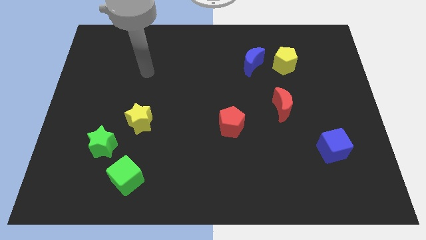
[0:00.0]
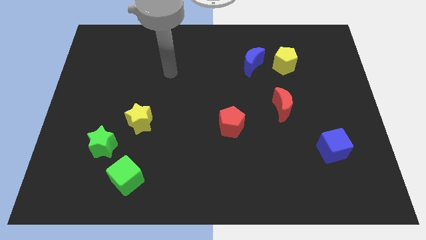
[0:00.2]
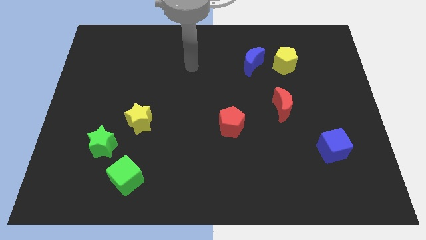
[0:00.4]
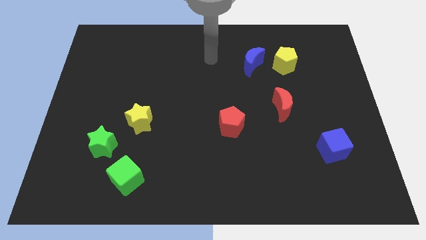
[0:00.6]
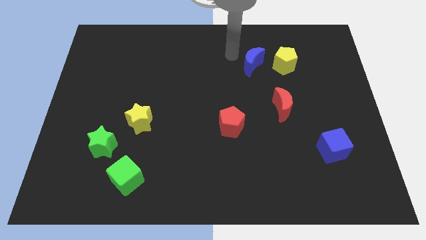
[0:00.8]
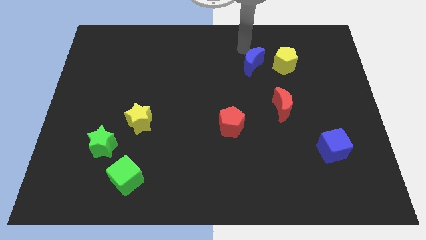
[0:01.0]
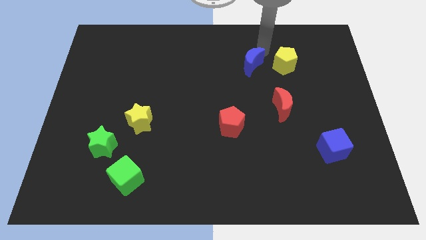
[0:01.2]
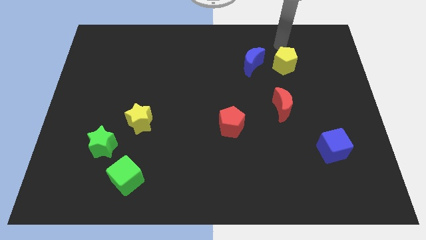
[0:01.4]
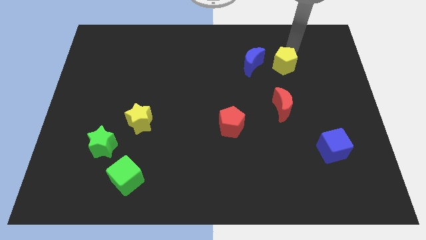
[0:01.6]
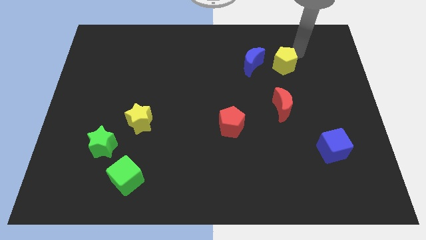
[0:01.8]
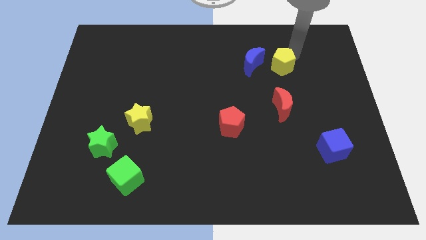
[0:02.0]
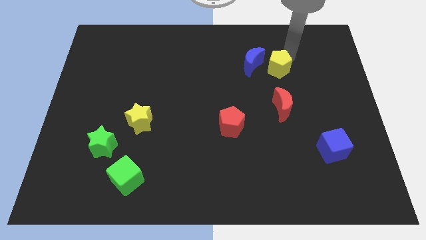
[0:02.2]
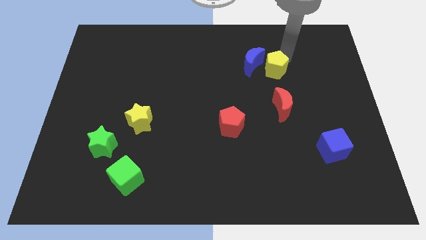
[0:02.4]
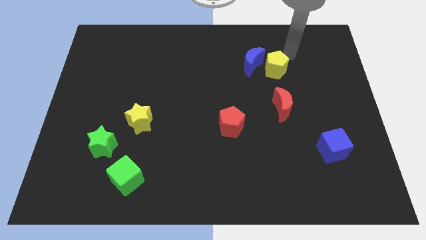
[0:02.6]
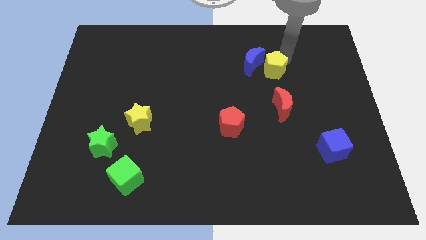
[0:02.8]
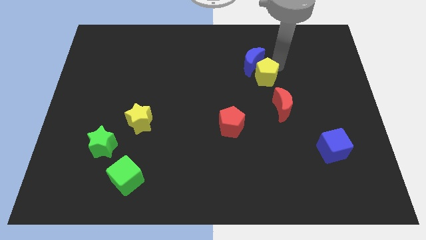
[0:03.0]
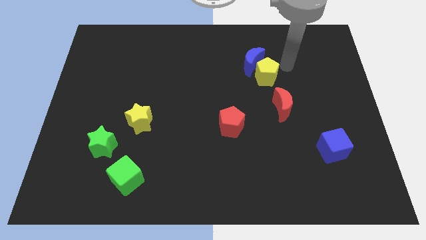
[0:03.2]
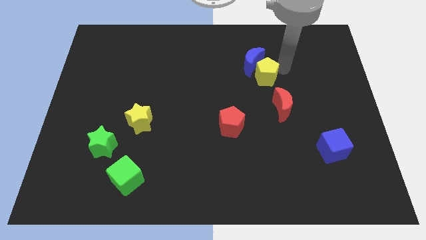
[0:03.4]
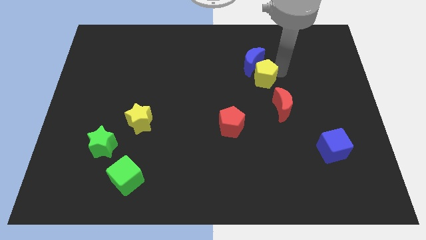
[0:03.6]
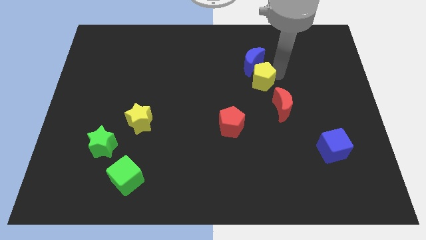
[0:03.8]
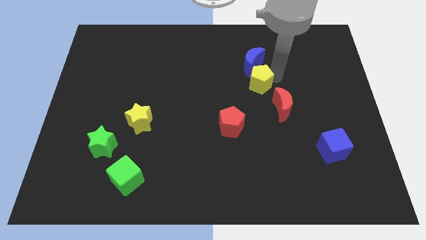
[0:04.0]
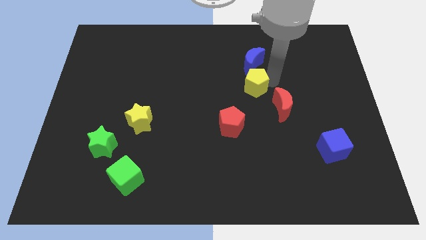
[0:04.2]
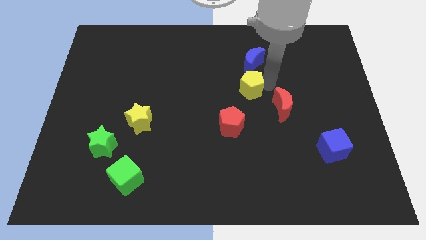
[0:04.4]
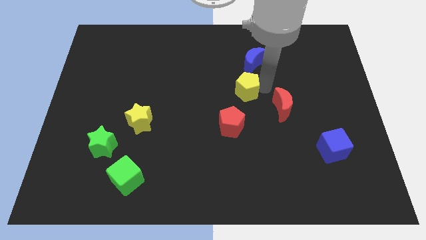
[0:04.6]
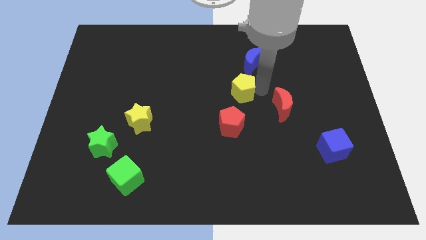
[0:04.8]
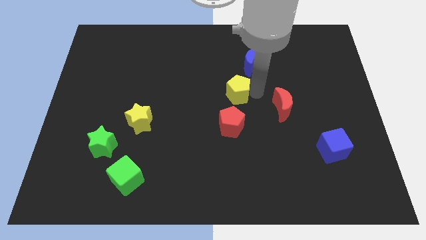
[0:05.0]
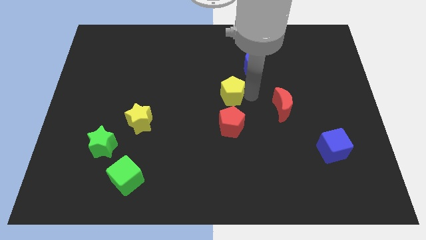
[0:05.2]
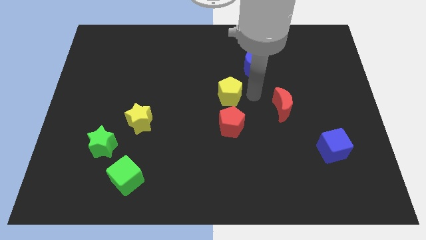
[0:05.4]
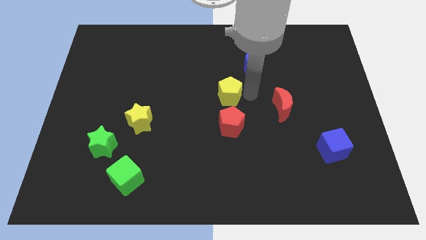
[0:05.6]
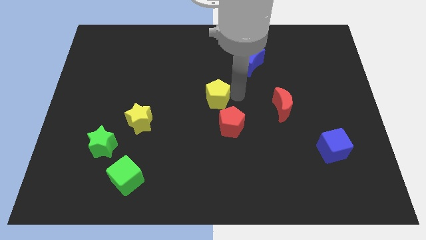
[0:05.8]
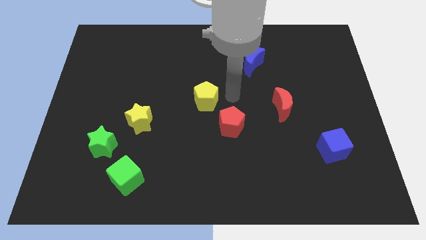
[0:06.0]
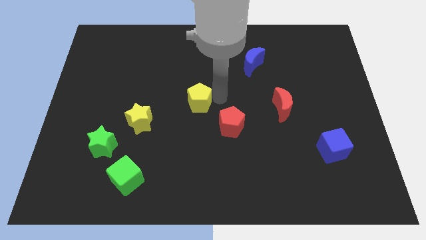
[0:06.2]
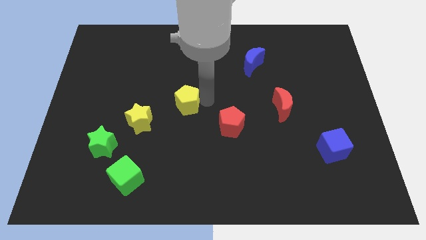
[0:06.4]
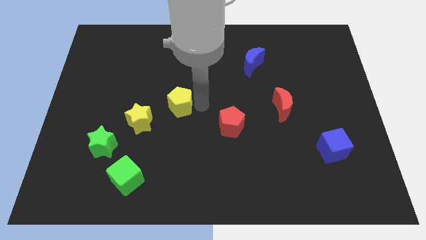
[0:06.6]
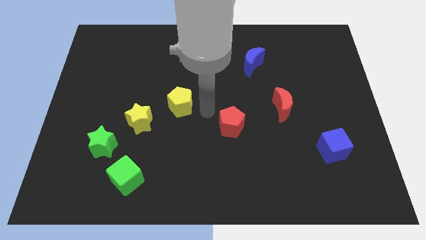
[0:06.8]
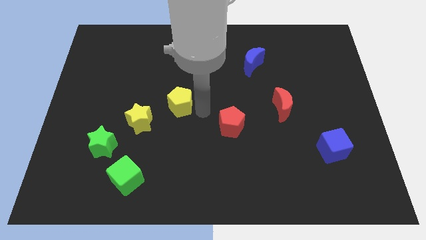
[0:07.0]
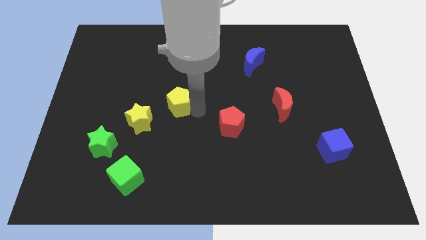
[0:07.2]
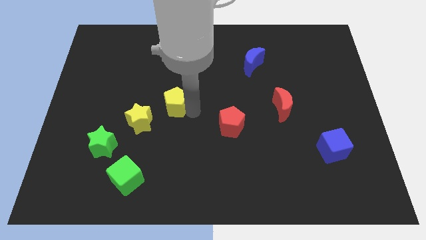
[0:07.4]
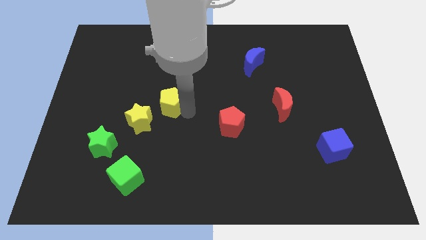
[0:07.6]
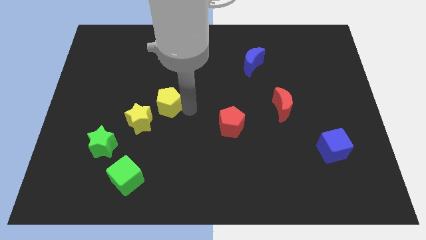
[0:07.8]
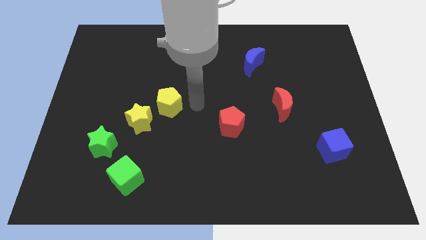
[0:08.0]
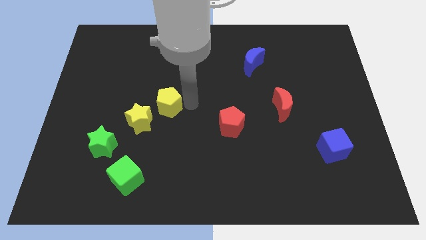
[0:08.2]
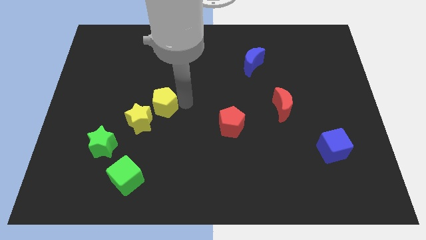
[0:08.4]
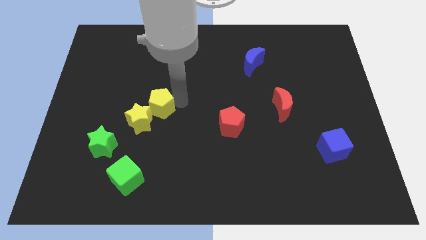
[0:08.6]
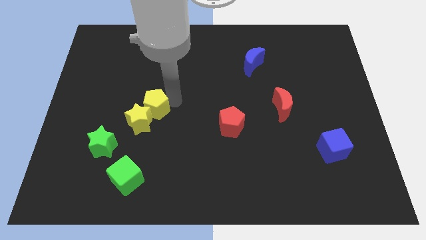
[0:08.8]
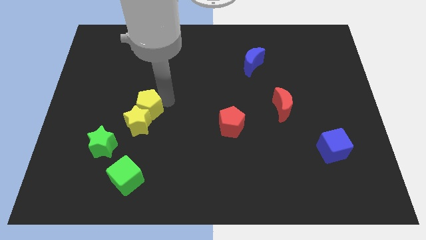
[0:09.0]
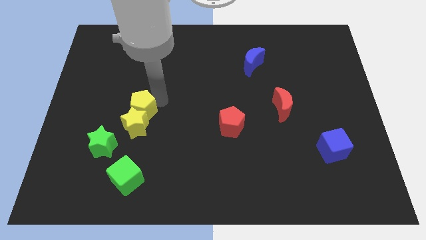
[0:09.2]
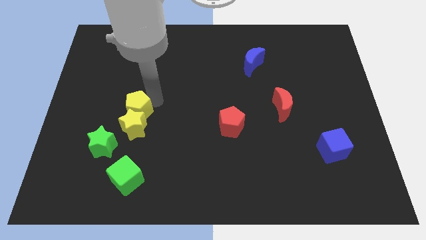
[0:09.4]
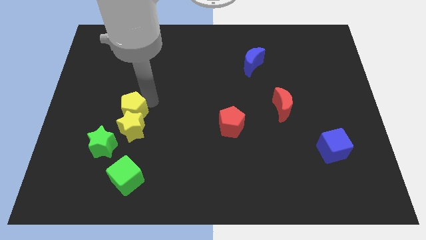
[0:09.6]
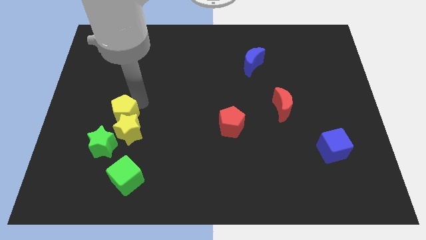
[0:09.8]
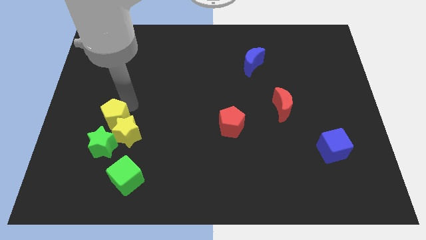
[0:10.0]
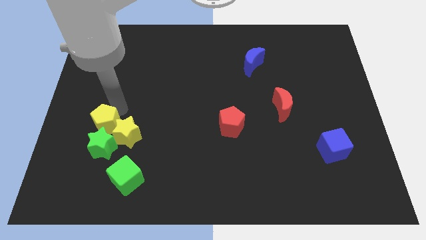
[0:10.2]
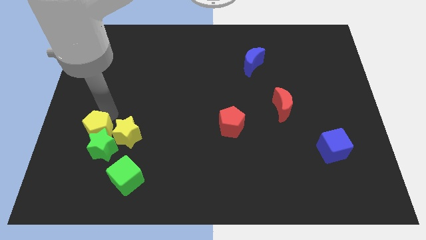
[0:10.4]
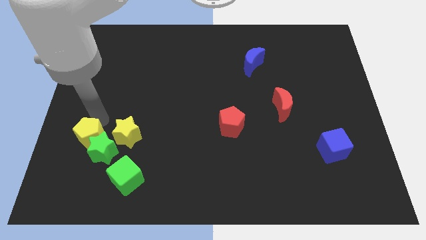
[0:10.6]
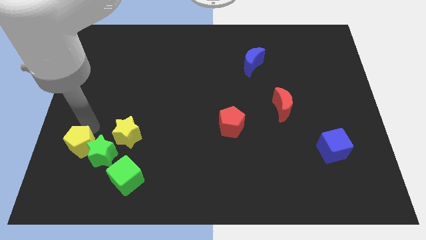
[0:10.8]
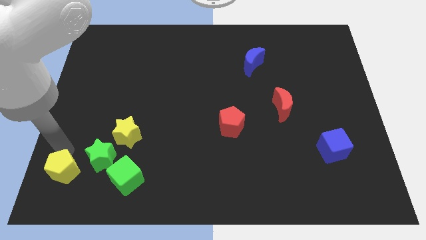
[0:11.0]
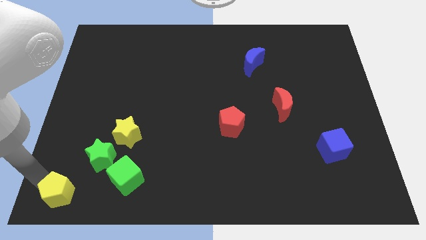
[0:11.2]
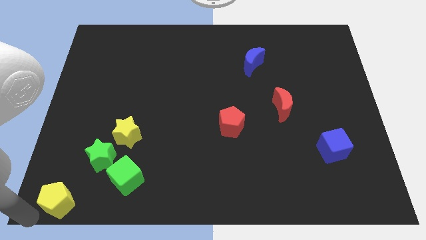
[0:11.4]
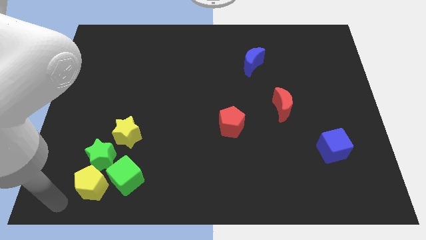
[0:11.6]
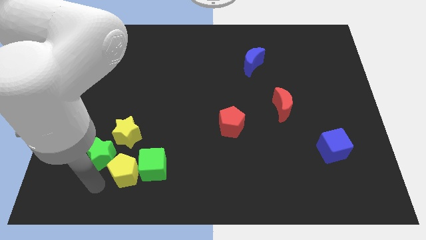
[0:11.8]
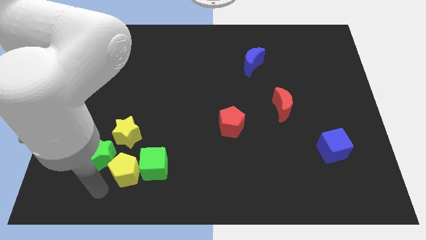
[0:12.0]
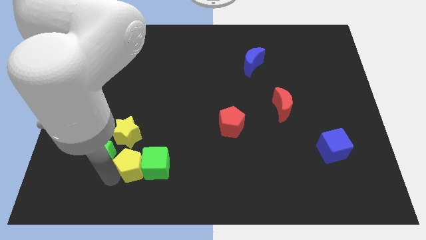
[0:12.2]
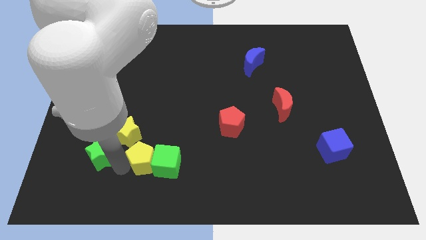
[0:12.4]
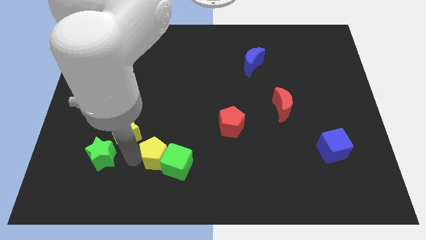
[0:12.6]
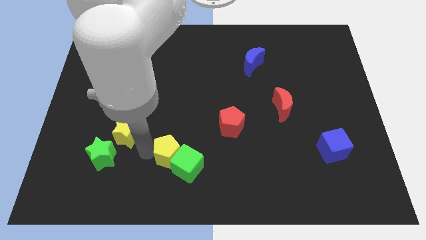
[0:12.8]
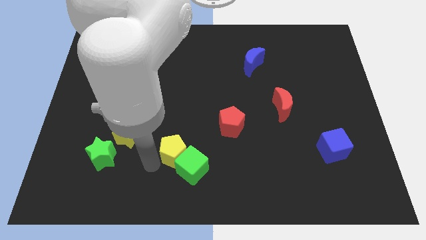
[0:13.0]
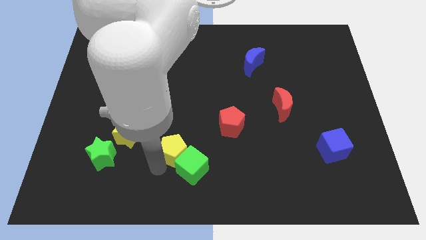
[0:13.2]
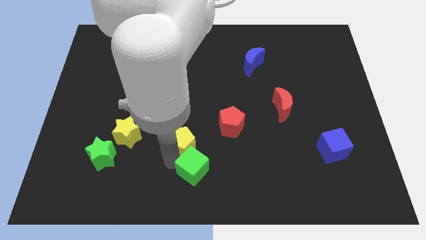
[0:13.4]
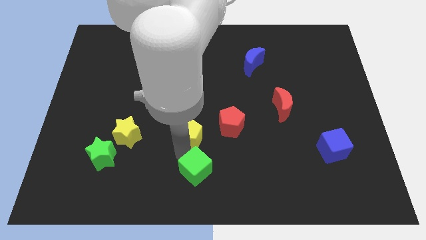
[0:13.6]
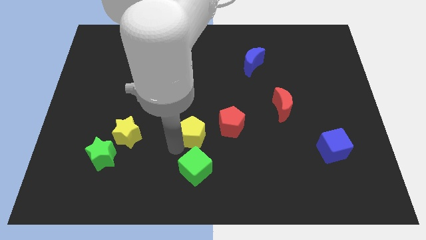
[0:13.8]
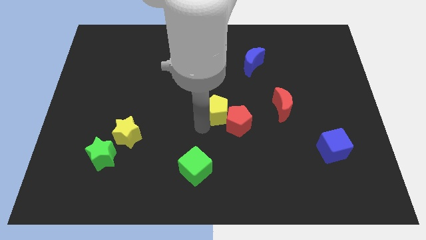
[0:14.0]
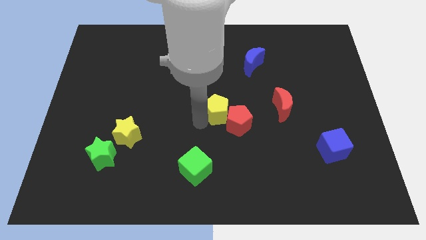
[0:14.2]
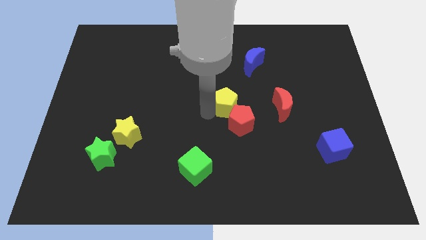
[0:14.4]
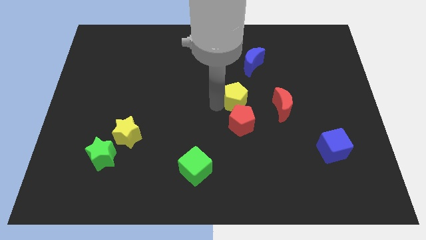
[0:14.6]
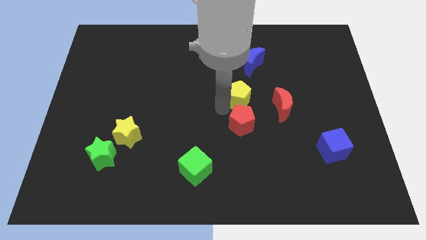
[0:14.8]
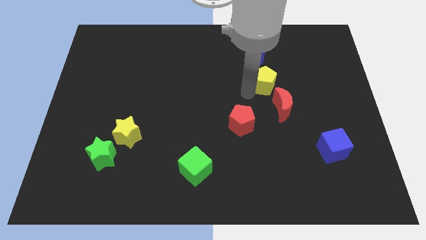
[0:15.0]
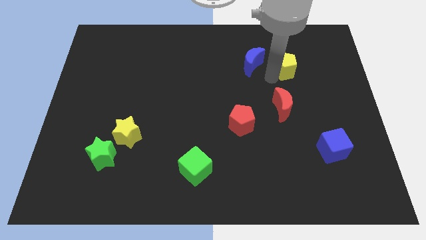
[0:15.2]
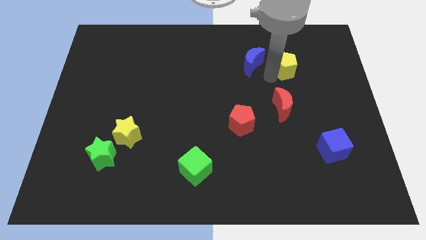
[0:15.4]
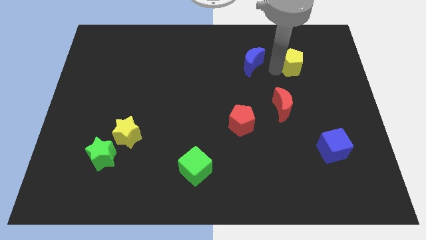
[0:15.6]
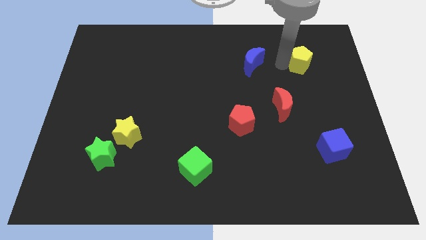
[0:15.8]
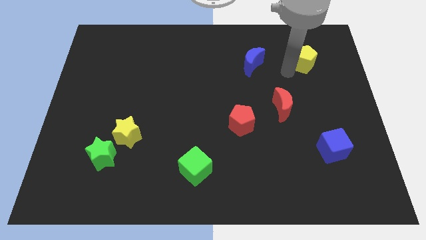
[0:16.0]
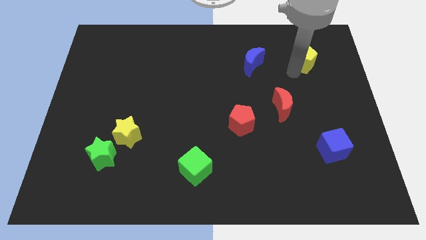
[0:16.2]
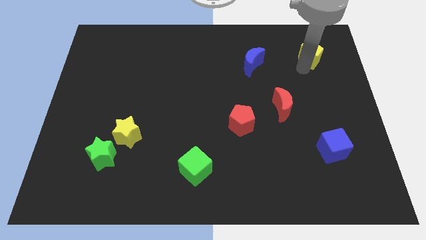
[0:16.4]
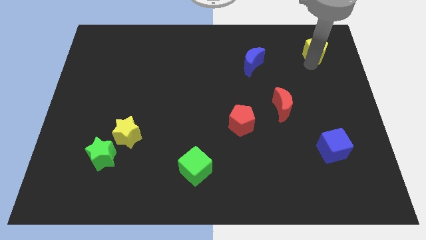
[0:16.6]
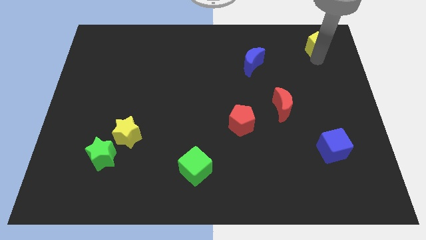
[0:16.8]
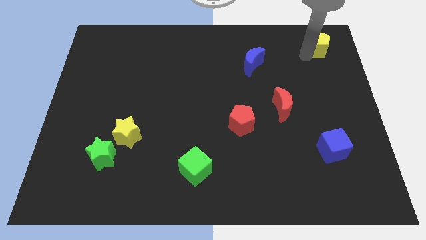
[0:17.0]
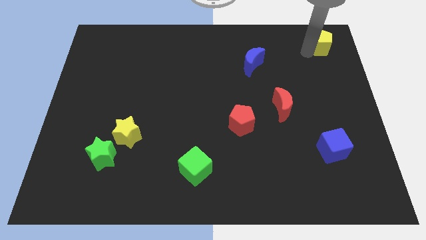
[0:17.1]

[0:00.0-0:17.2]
move the yellow pentagon to the top right
